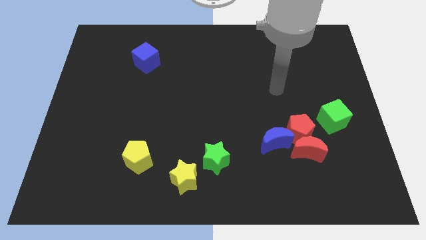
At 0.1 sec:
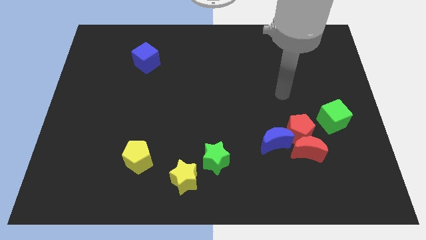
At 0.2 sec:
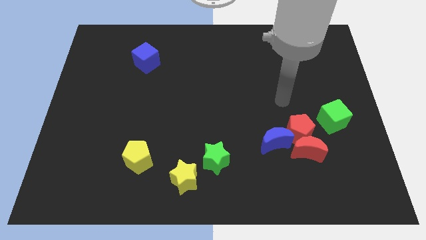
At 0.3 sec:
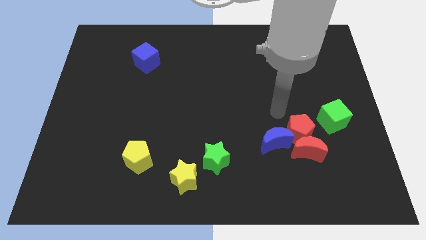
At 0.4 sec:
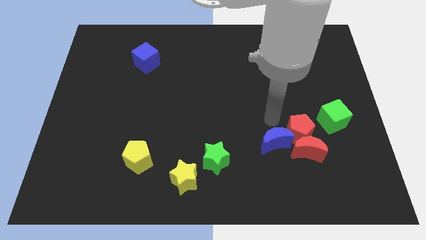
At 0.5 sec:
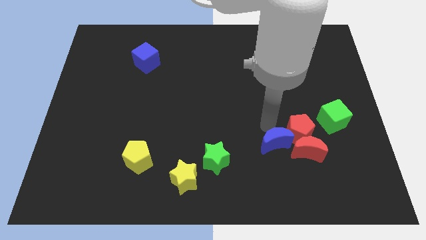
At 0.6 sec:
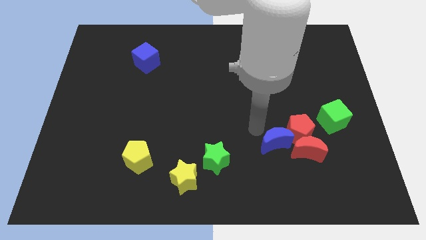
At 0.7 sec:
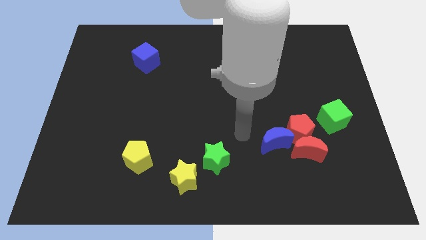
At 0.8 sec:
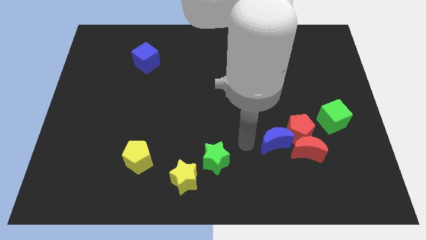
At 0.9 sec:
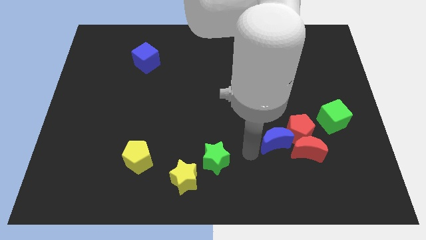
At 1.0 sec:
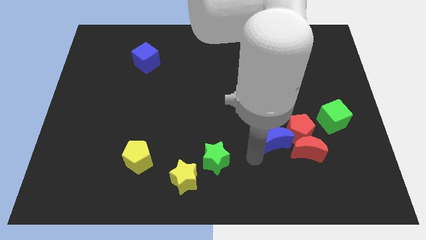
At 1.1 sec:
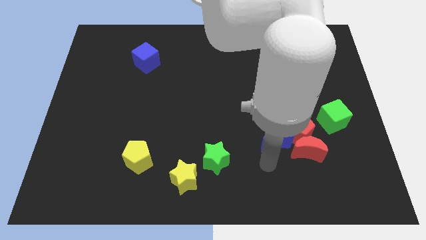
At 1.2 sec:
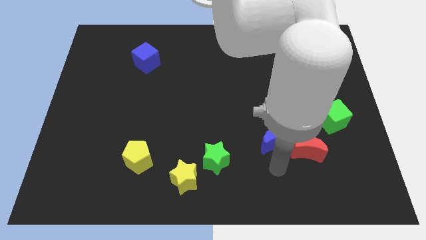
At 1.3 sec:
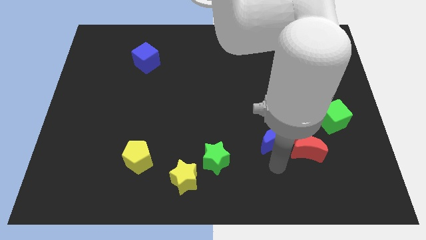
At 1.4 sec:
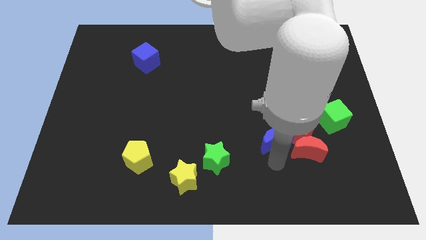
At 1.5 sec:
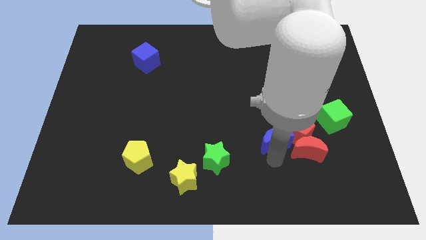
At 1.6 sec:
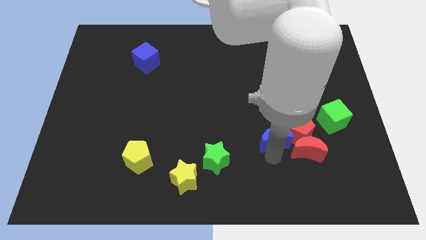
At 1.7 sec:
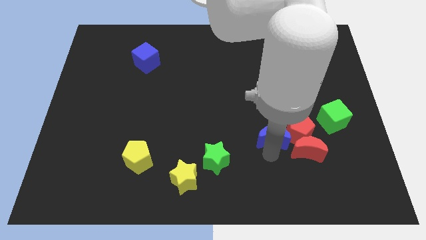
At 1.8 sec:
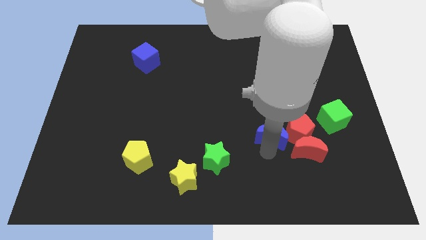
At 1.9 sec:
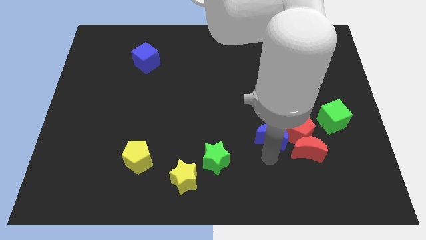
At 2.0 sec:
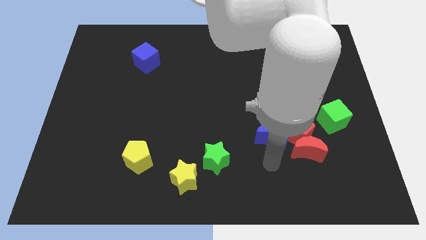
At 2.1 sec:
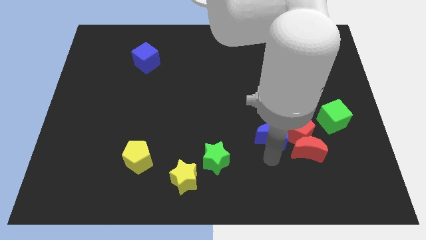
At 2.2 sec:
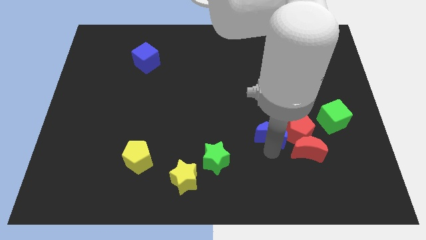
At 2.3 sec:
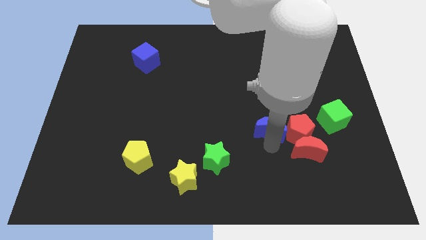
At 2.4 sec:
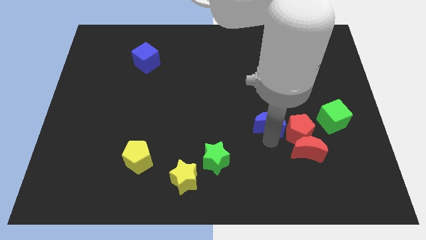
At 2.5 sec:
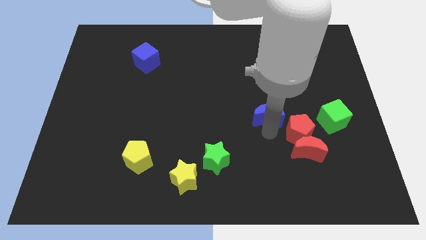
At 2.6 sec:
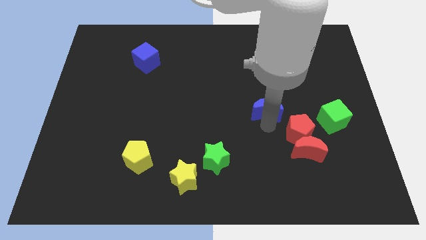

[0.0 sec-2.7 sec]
slightly move the blue moon upwards

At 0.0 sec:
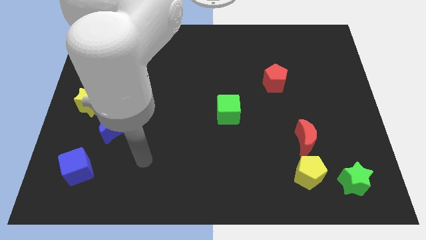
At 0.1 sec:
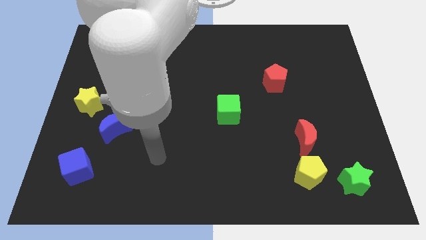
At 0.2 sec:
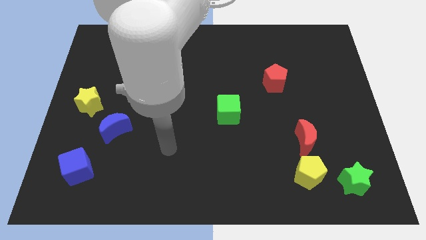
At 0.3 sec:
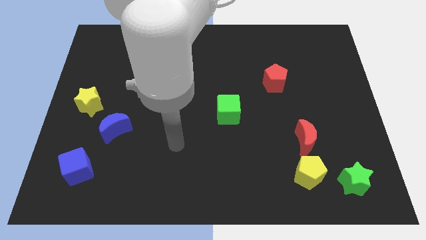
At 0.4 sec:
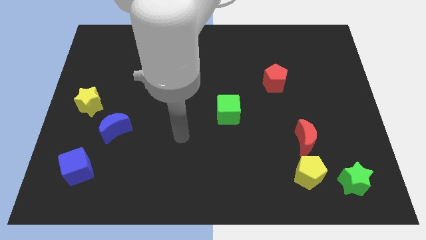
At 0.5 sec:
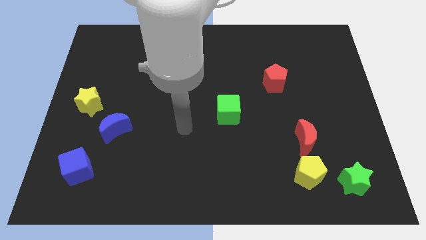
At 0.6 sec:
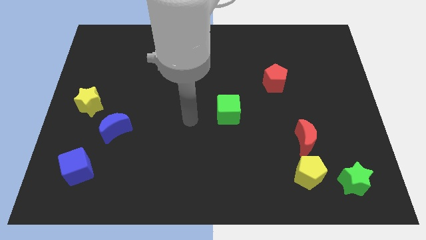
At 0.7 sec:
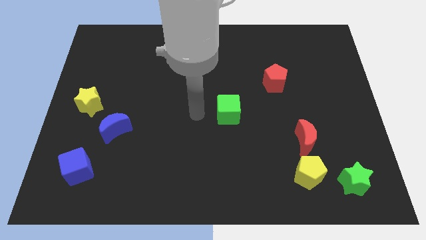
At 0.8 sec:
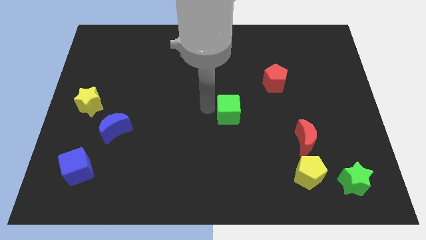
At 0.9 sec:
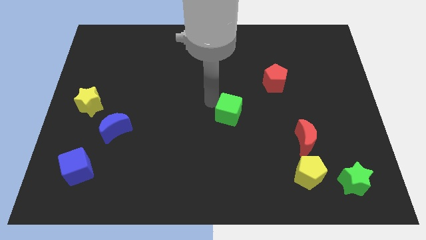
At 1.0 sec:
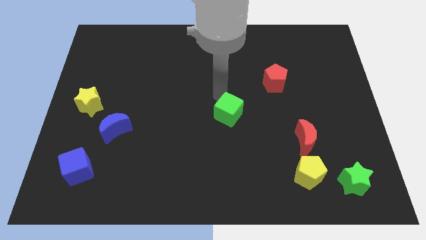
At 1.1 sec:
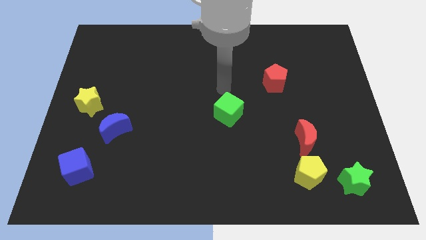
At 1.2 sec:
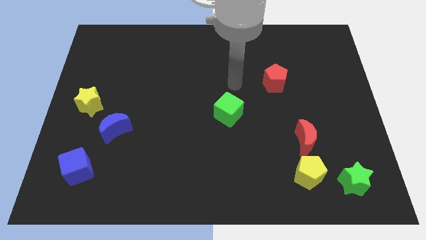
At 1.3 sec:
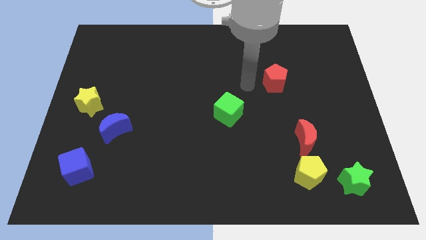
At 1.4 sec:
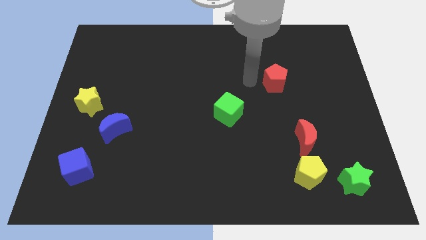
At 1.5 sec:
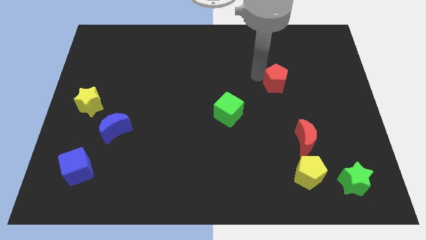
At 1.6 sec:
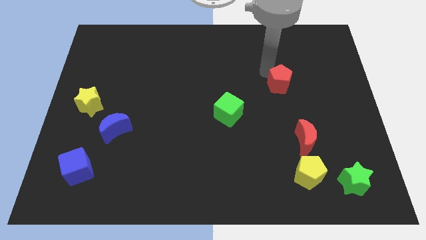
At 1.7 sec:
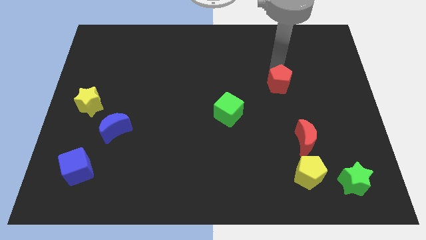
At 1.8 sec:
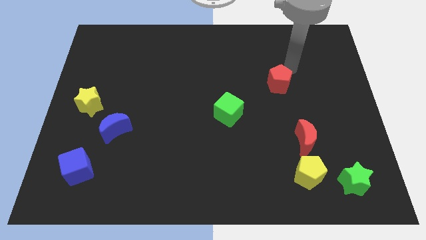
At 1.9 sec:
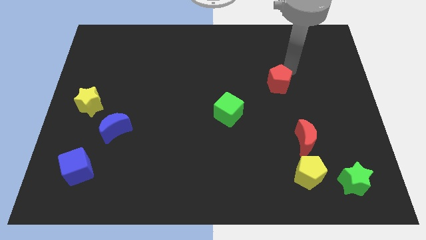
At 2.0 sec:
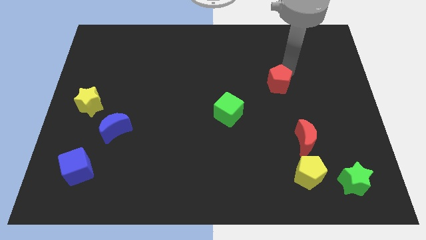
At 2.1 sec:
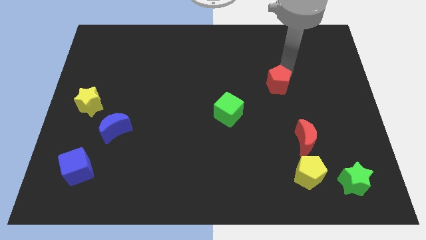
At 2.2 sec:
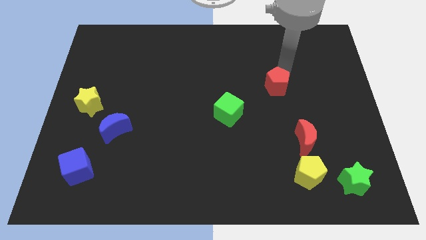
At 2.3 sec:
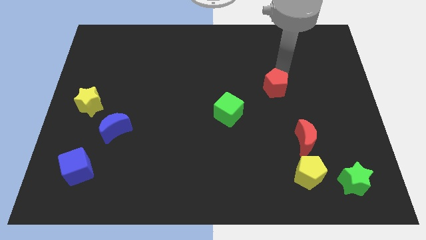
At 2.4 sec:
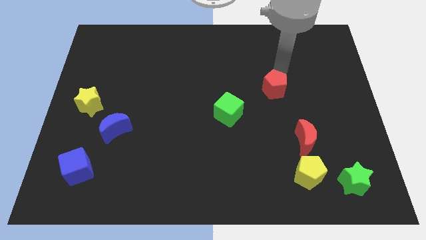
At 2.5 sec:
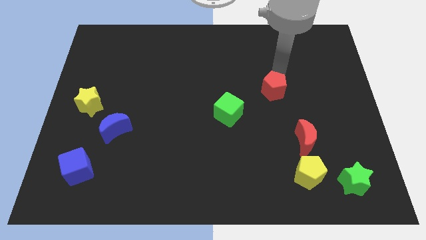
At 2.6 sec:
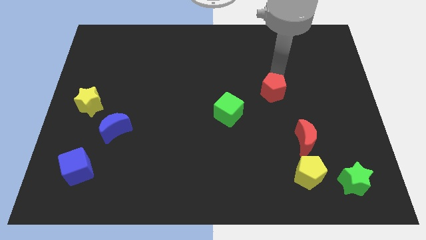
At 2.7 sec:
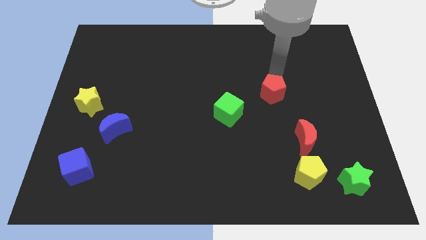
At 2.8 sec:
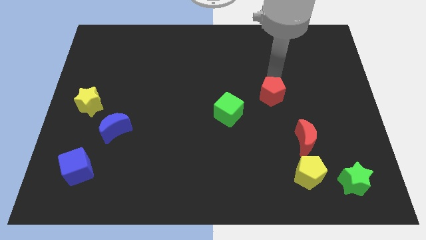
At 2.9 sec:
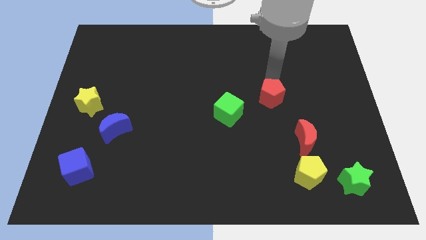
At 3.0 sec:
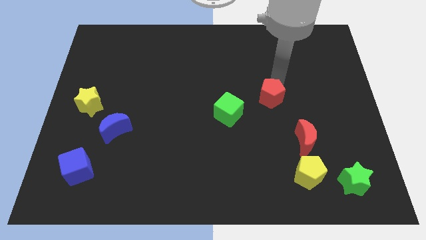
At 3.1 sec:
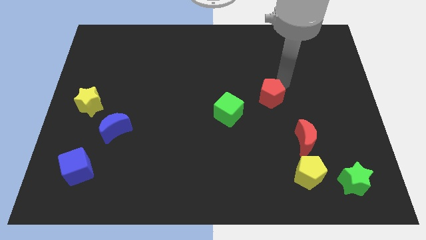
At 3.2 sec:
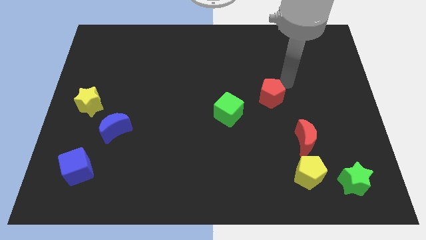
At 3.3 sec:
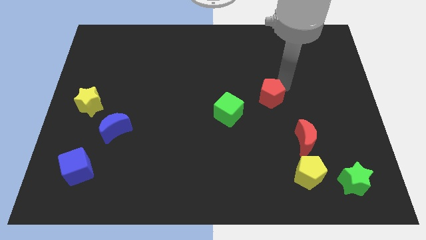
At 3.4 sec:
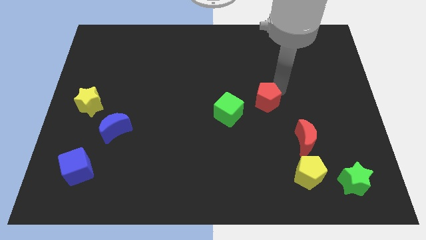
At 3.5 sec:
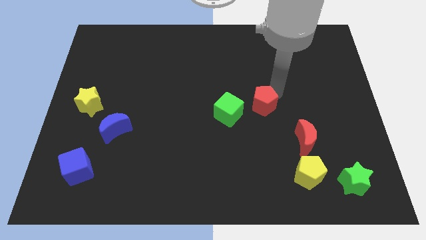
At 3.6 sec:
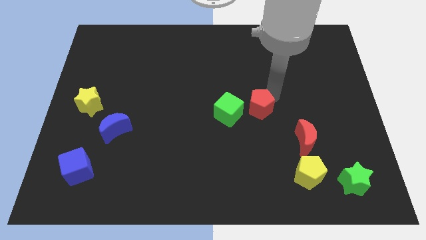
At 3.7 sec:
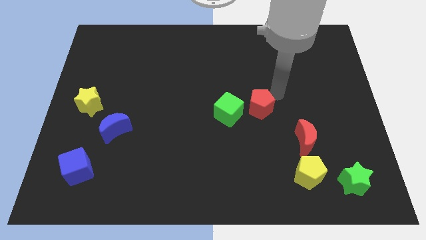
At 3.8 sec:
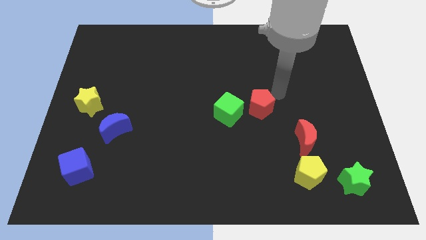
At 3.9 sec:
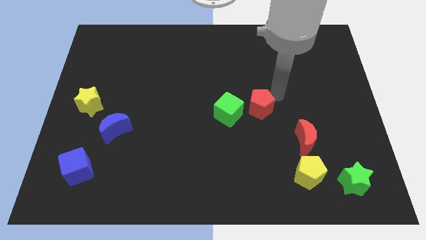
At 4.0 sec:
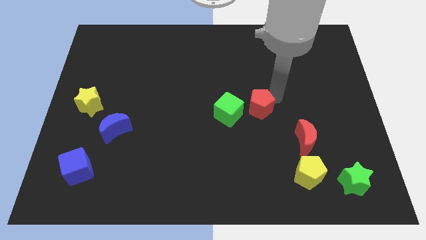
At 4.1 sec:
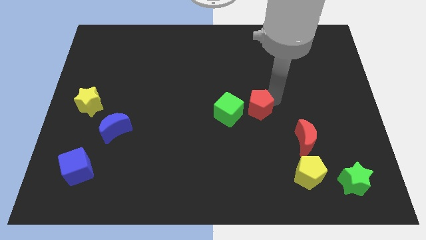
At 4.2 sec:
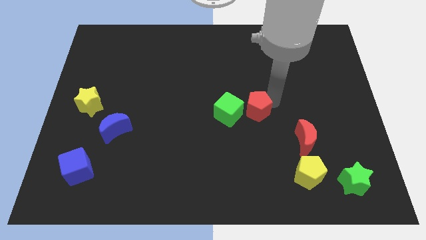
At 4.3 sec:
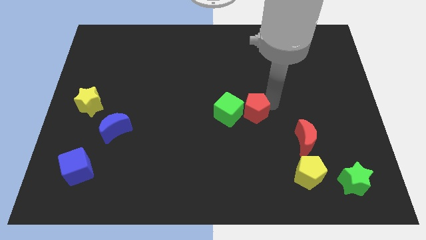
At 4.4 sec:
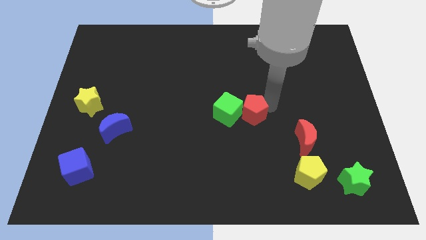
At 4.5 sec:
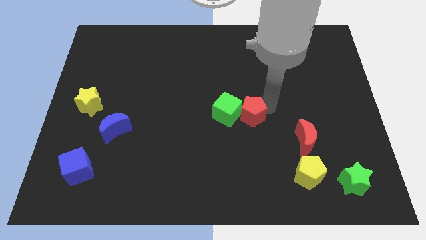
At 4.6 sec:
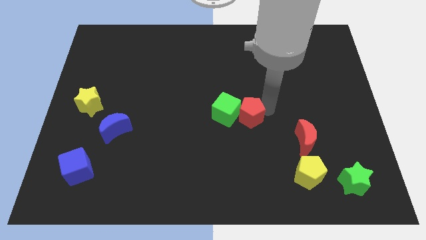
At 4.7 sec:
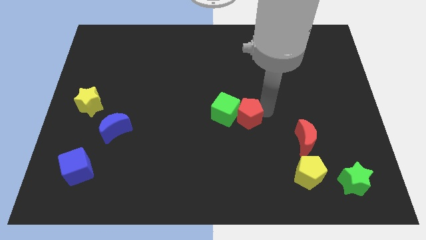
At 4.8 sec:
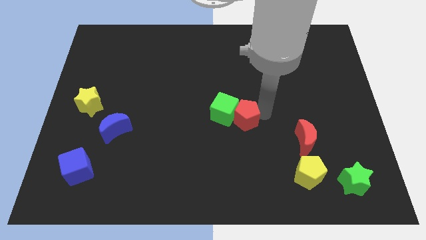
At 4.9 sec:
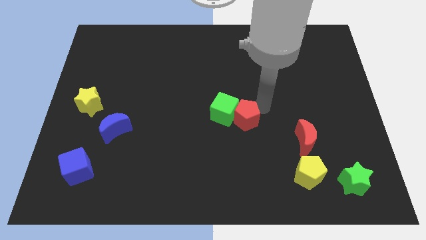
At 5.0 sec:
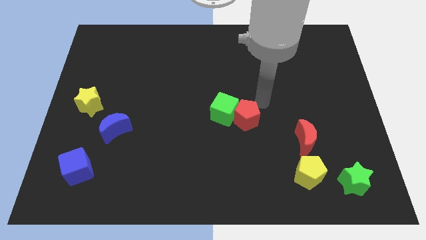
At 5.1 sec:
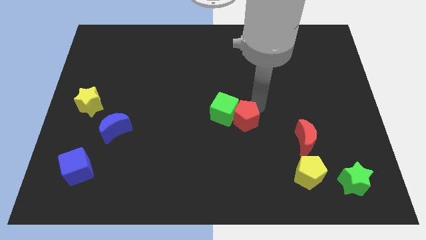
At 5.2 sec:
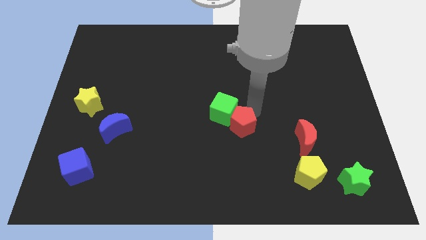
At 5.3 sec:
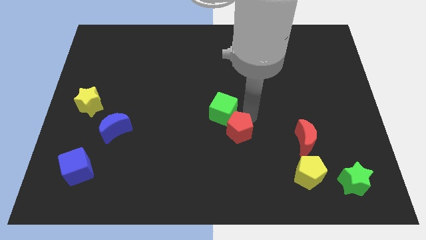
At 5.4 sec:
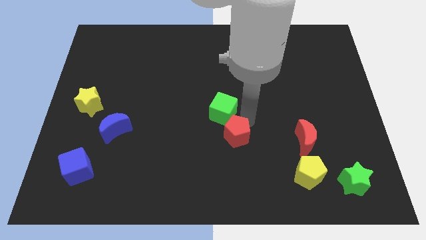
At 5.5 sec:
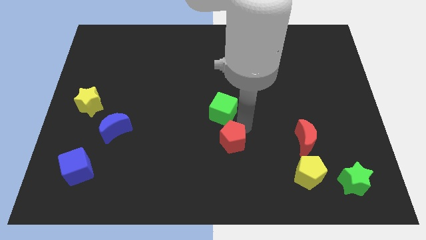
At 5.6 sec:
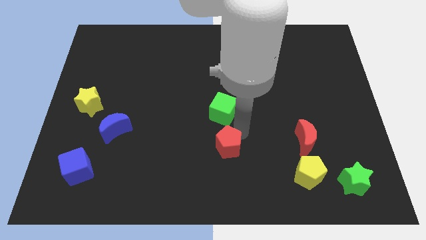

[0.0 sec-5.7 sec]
move the red pentagon downwards and to the left diagonally
